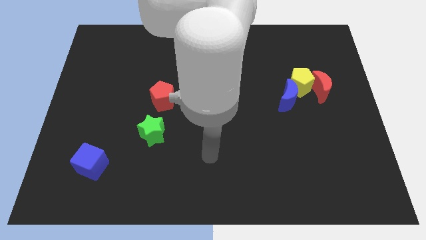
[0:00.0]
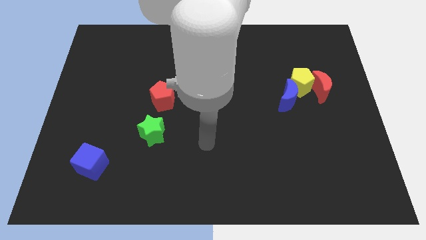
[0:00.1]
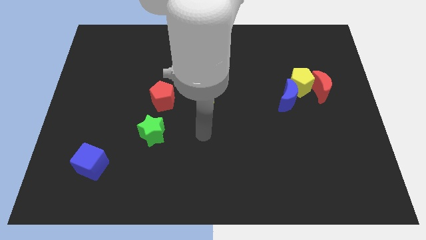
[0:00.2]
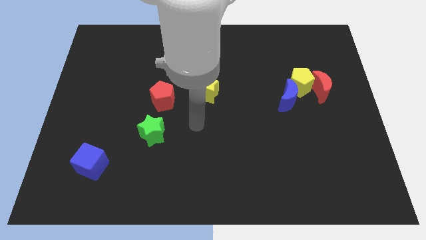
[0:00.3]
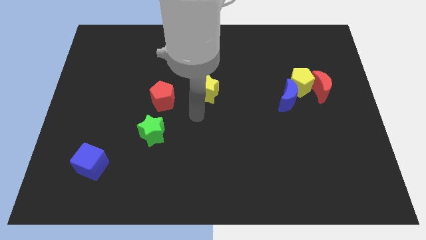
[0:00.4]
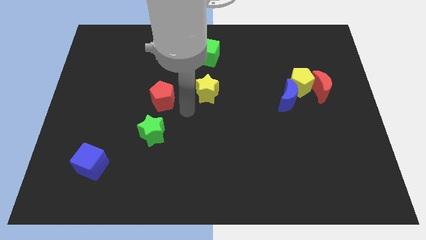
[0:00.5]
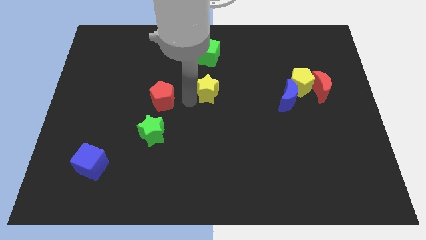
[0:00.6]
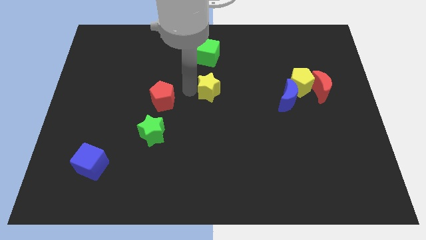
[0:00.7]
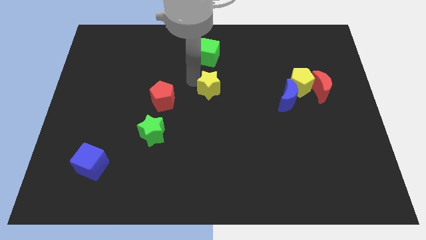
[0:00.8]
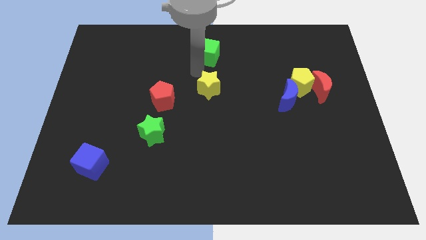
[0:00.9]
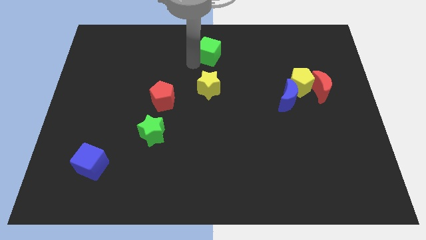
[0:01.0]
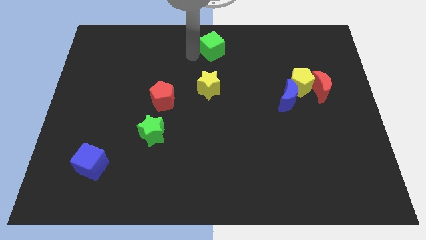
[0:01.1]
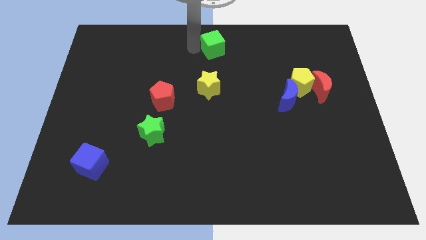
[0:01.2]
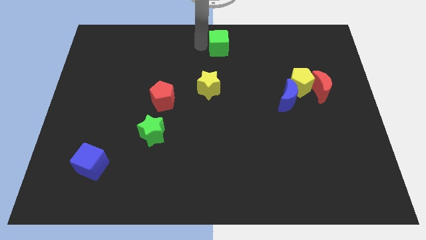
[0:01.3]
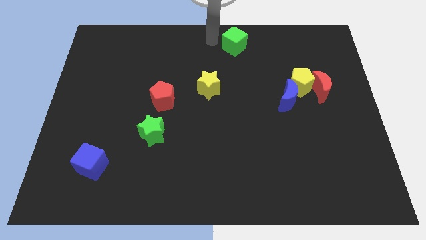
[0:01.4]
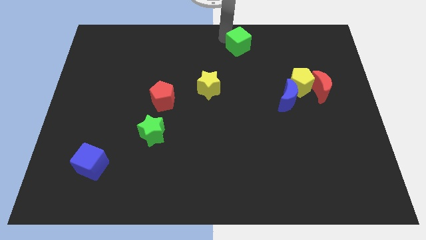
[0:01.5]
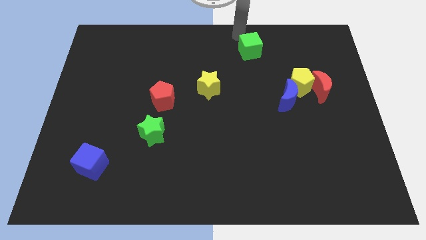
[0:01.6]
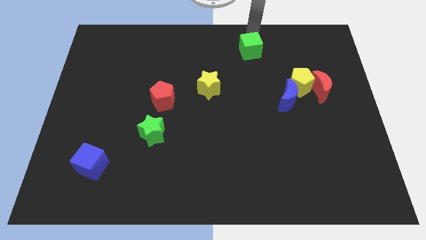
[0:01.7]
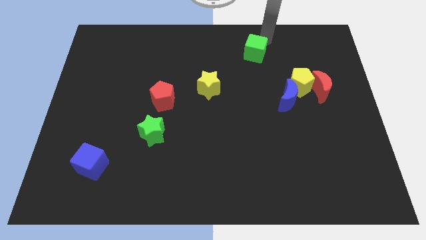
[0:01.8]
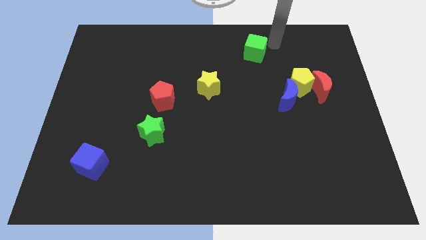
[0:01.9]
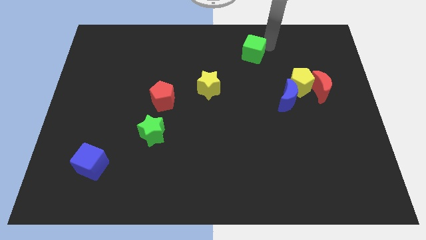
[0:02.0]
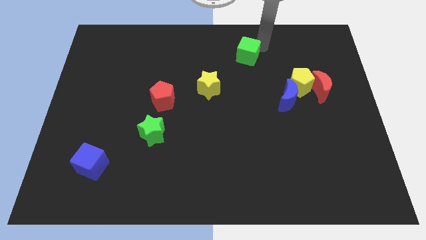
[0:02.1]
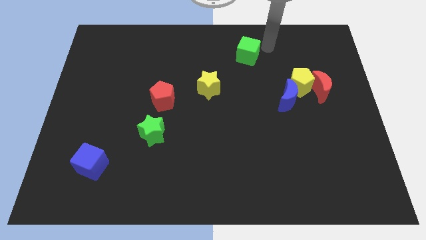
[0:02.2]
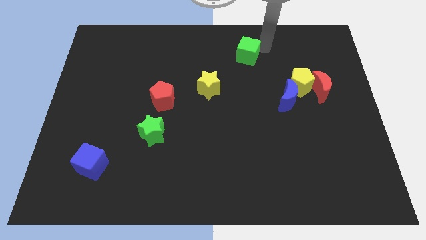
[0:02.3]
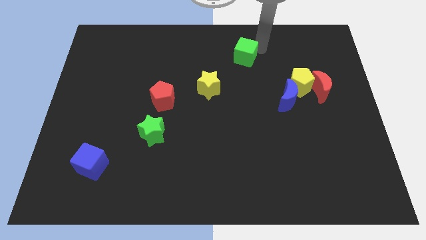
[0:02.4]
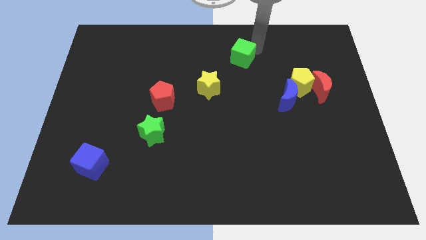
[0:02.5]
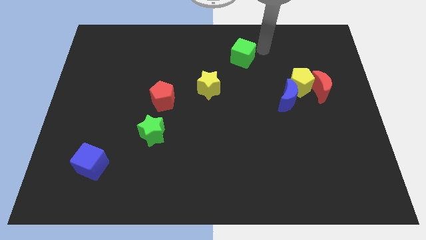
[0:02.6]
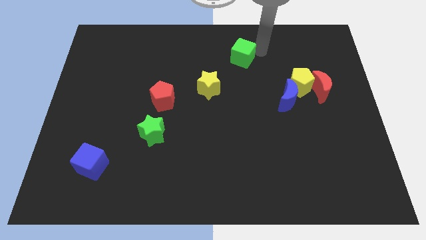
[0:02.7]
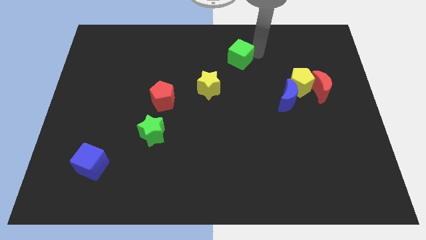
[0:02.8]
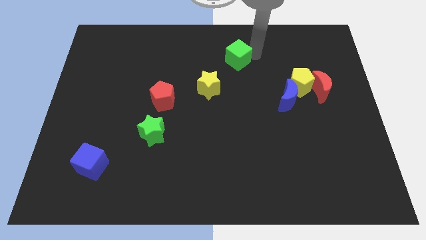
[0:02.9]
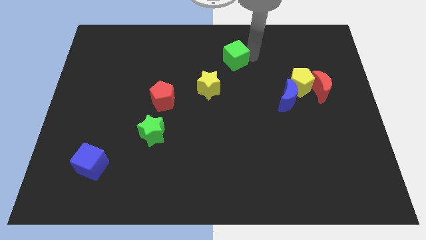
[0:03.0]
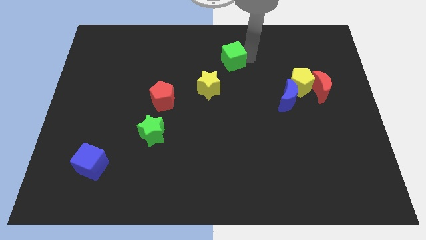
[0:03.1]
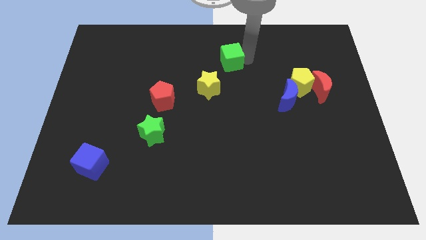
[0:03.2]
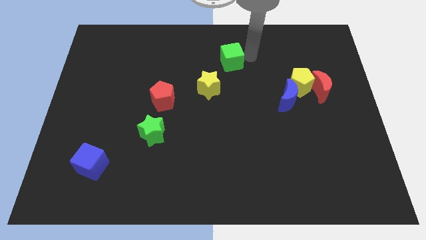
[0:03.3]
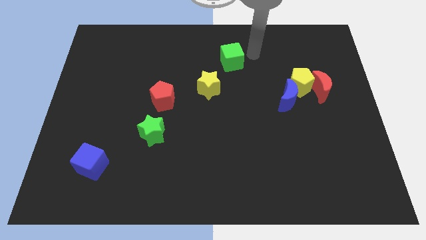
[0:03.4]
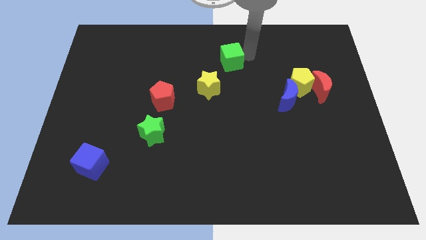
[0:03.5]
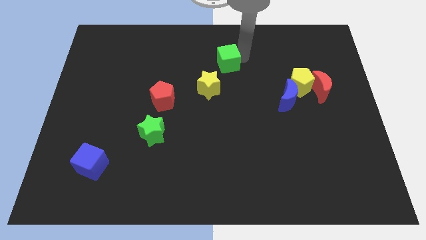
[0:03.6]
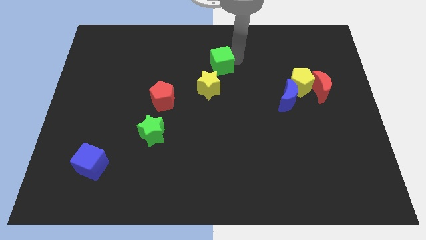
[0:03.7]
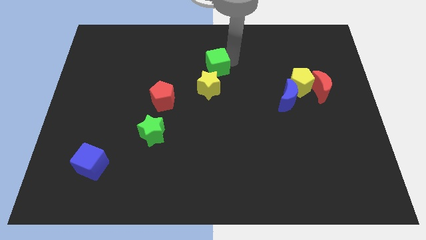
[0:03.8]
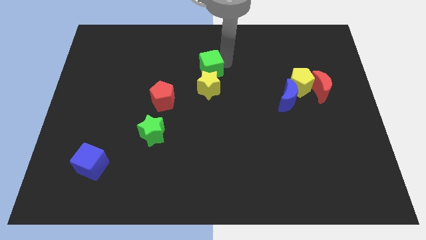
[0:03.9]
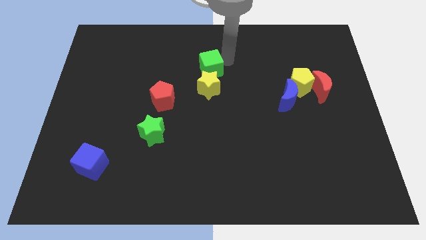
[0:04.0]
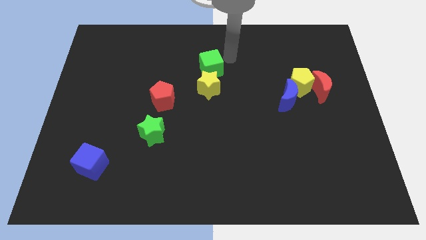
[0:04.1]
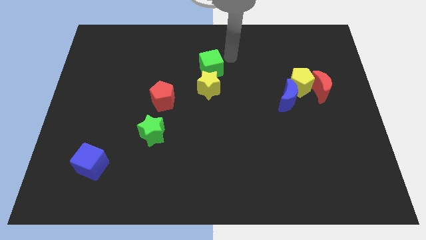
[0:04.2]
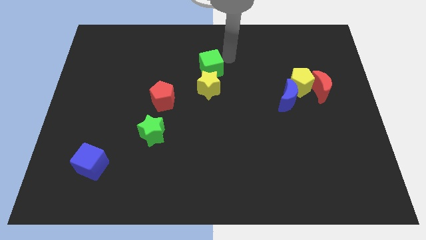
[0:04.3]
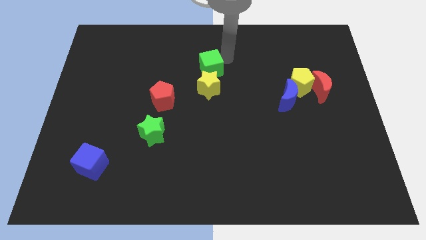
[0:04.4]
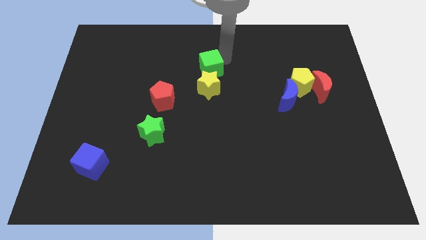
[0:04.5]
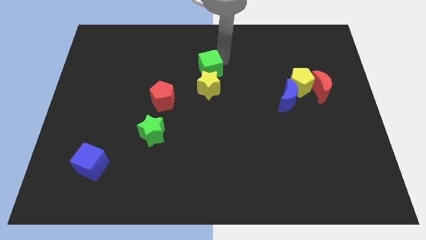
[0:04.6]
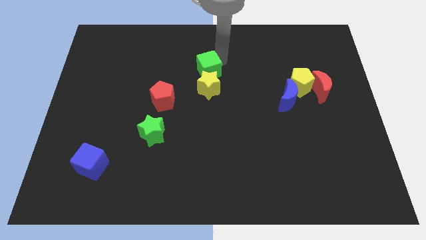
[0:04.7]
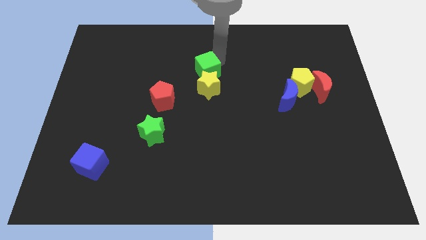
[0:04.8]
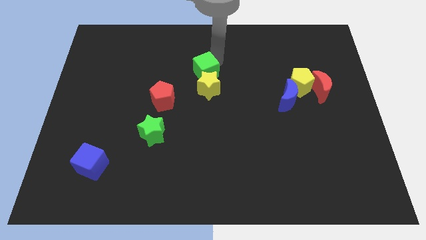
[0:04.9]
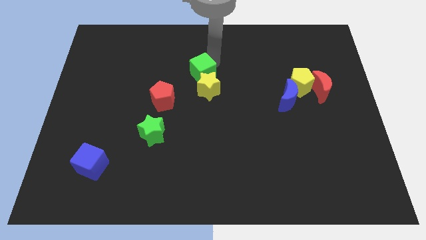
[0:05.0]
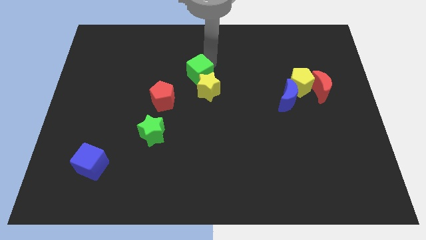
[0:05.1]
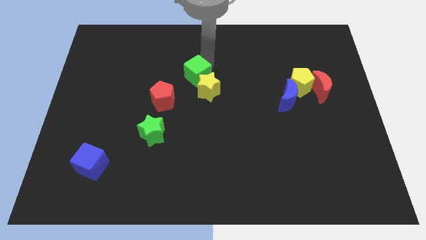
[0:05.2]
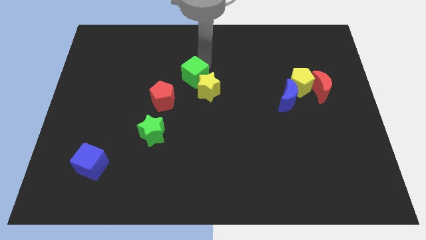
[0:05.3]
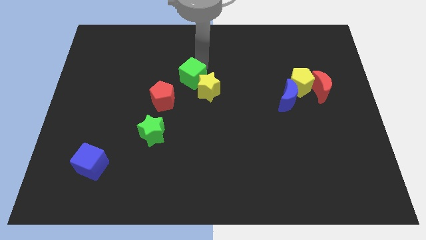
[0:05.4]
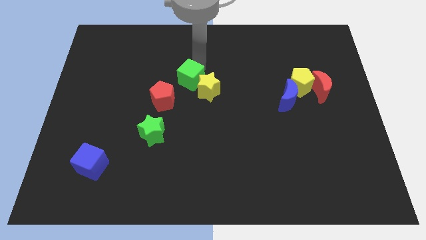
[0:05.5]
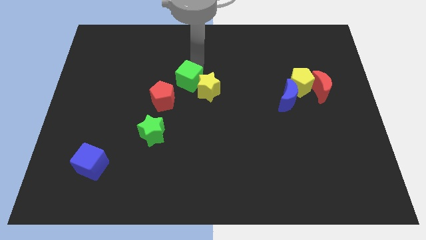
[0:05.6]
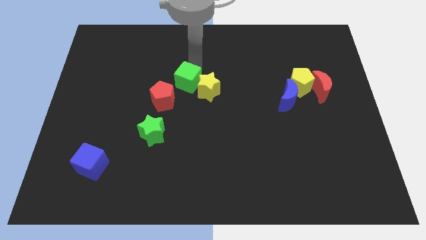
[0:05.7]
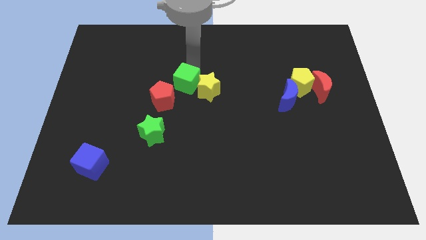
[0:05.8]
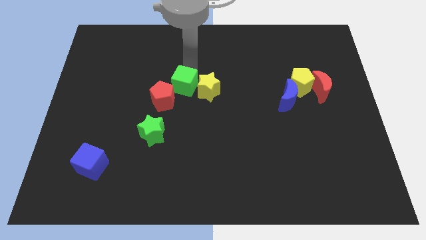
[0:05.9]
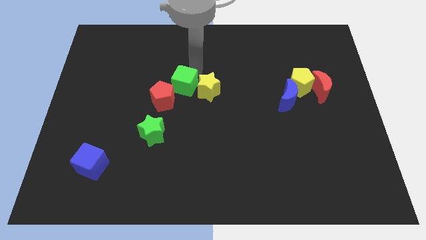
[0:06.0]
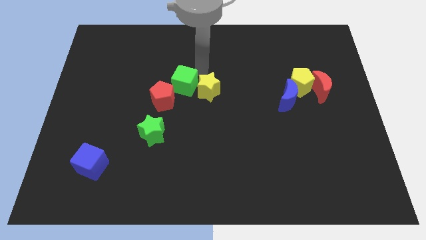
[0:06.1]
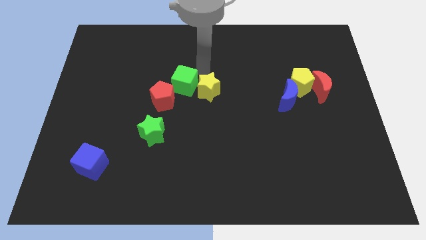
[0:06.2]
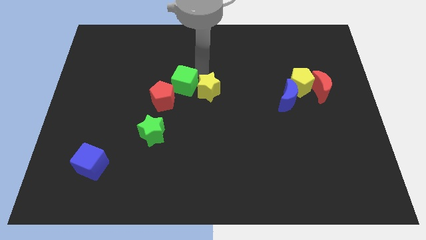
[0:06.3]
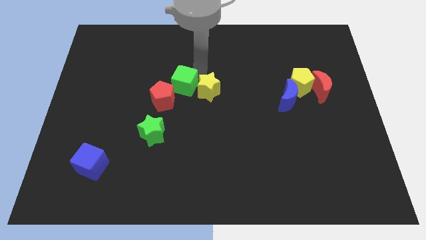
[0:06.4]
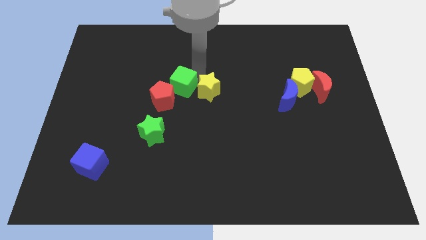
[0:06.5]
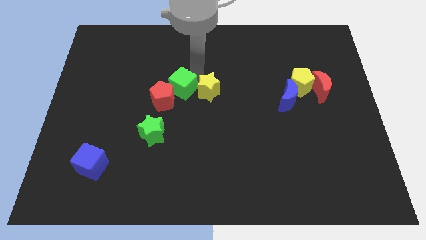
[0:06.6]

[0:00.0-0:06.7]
move the green cube towards the red pentagon
